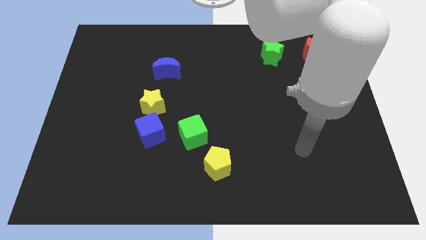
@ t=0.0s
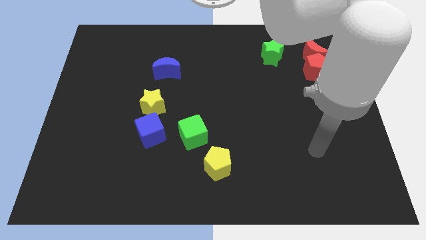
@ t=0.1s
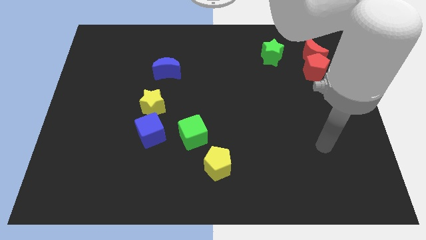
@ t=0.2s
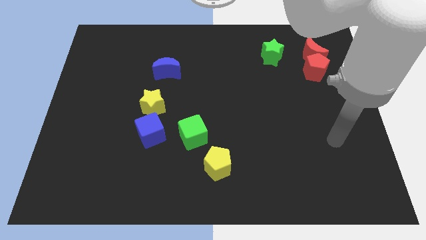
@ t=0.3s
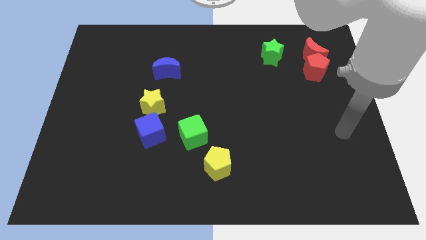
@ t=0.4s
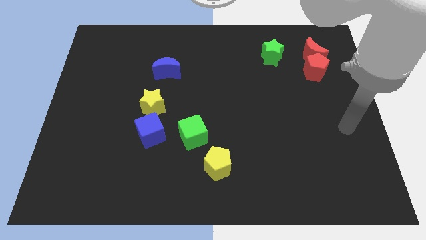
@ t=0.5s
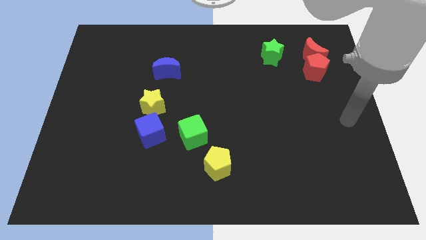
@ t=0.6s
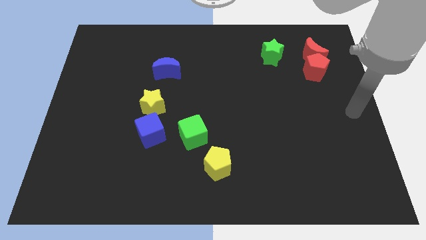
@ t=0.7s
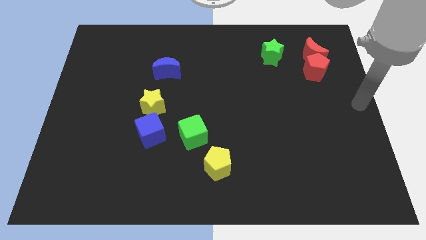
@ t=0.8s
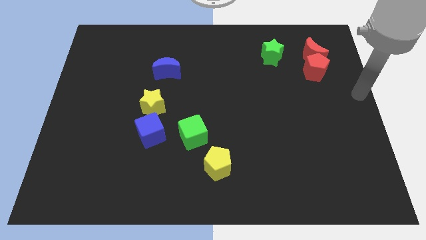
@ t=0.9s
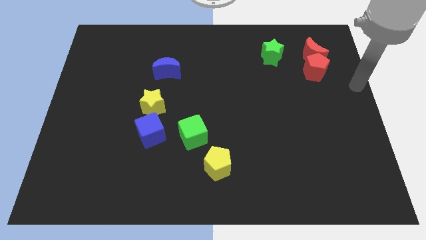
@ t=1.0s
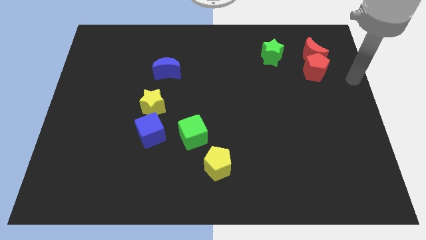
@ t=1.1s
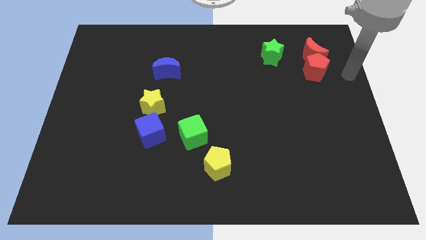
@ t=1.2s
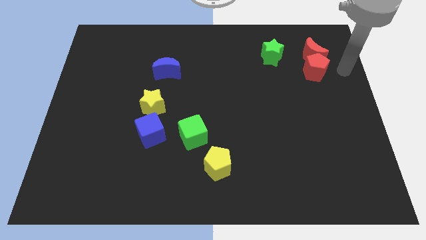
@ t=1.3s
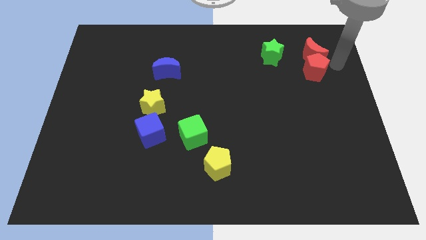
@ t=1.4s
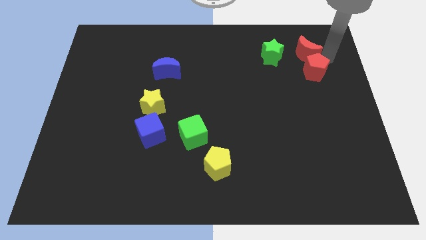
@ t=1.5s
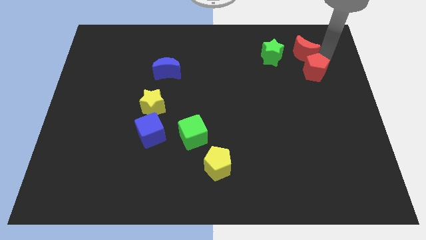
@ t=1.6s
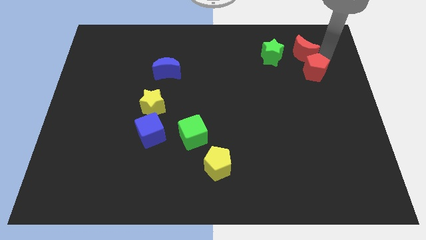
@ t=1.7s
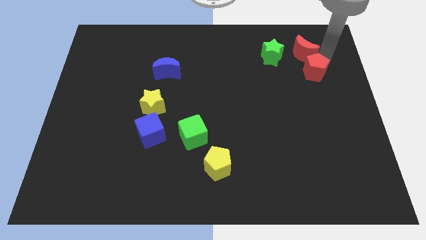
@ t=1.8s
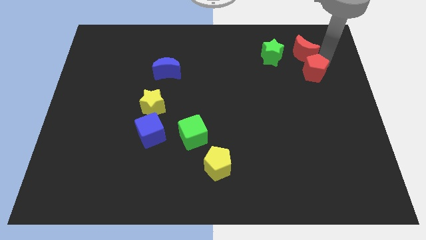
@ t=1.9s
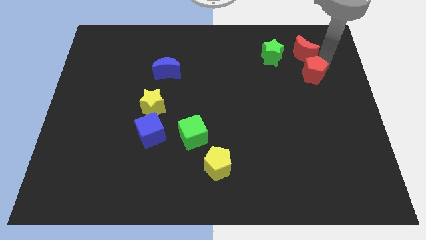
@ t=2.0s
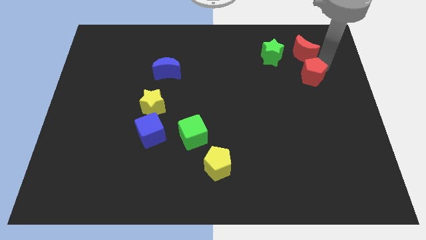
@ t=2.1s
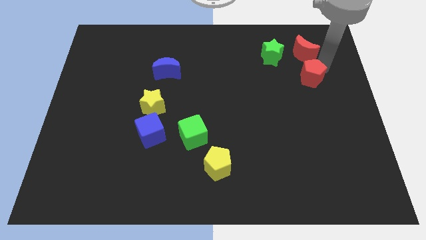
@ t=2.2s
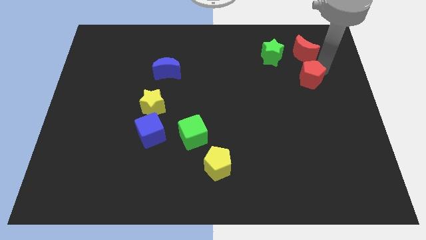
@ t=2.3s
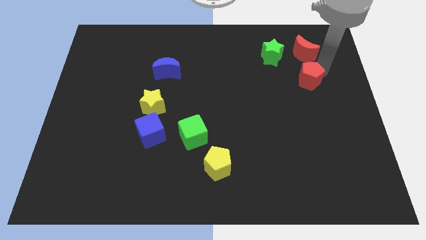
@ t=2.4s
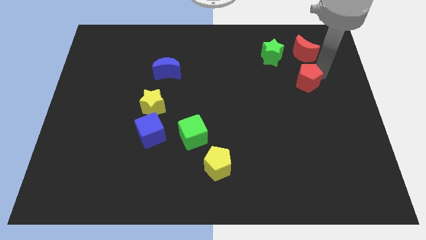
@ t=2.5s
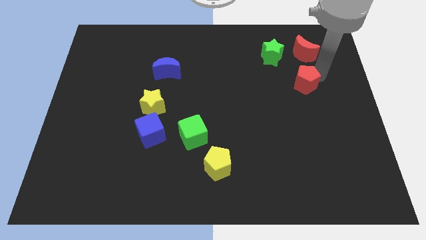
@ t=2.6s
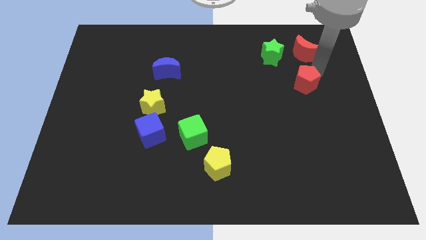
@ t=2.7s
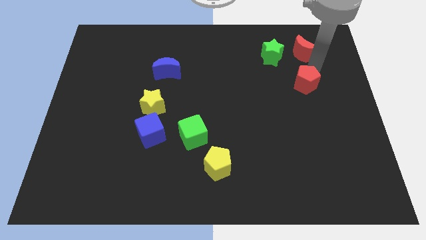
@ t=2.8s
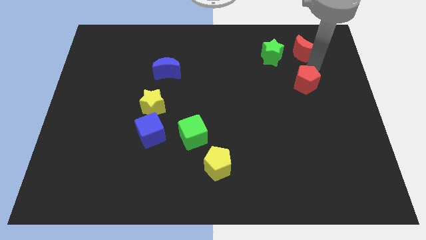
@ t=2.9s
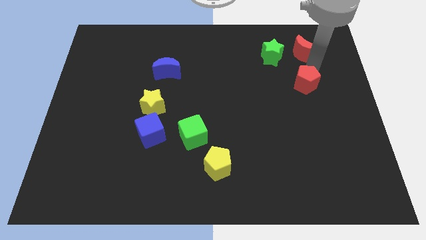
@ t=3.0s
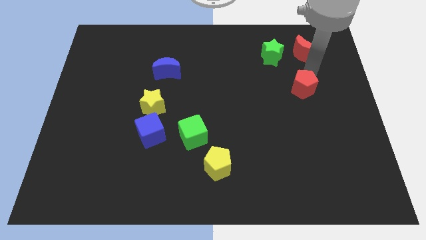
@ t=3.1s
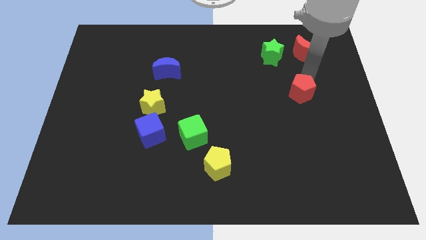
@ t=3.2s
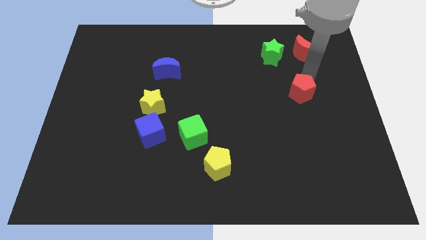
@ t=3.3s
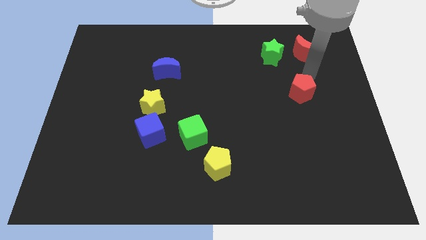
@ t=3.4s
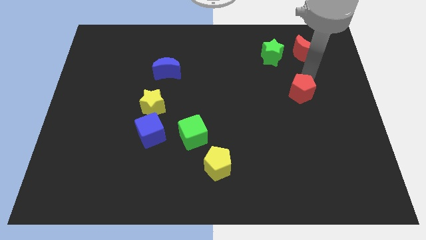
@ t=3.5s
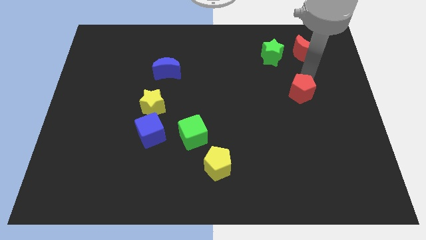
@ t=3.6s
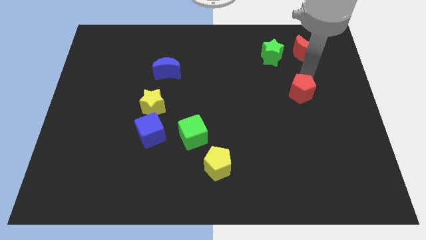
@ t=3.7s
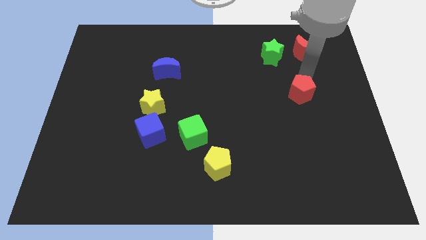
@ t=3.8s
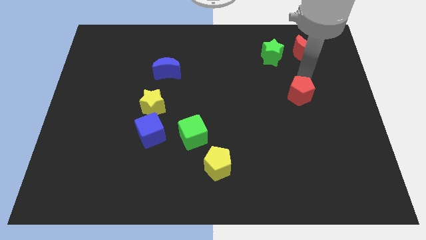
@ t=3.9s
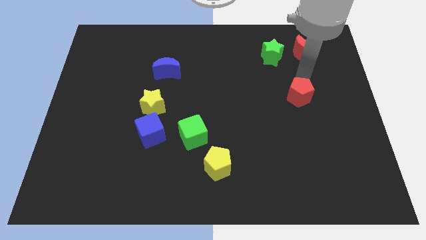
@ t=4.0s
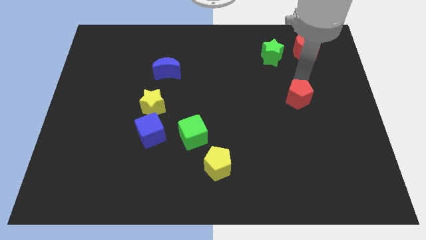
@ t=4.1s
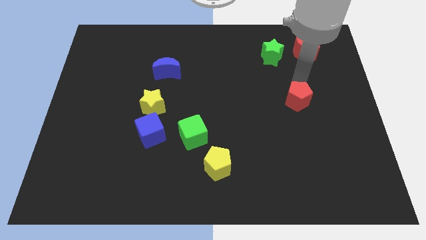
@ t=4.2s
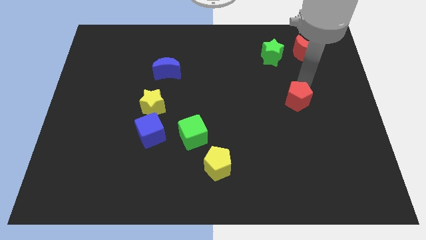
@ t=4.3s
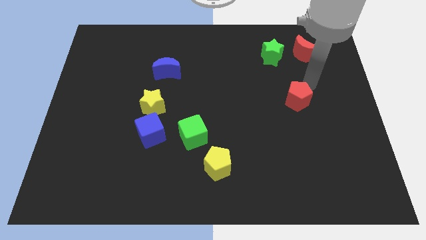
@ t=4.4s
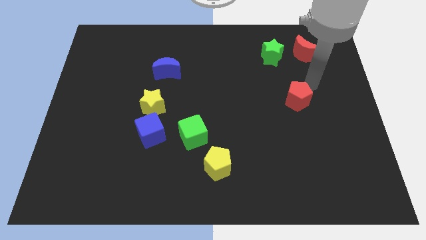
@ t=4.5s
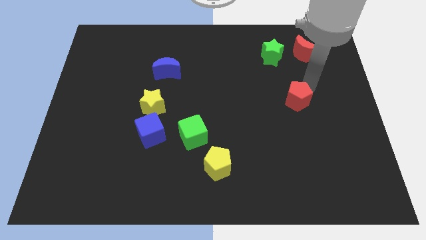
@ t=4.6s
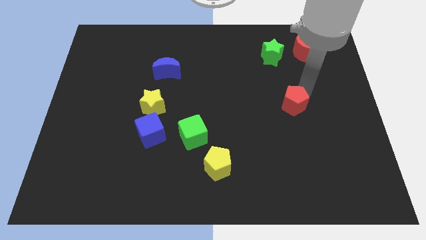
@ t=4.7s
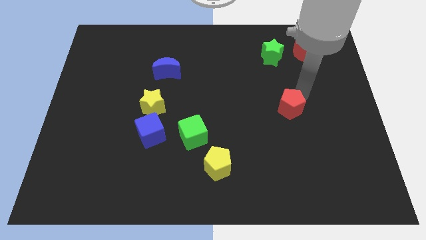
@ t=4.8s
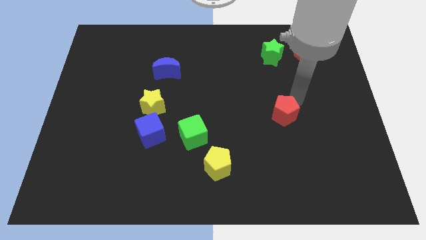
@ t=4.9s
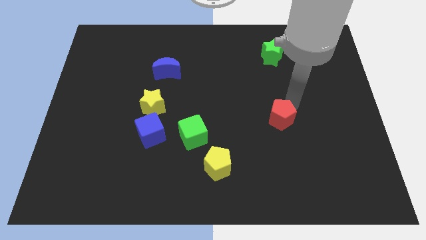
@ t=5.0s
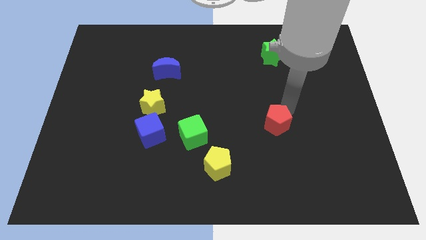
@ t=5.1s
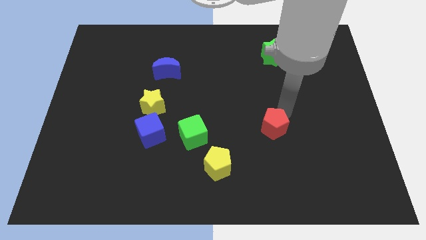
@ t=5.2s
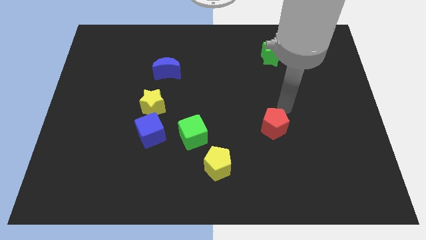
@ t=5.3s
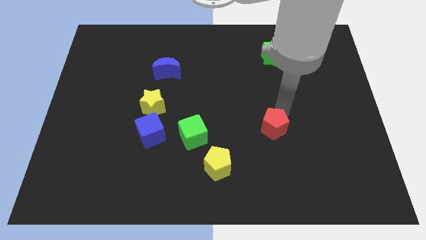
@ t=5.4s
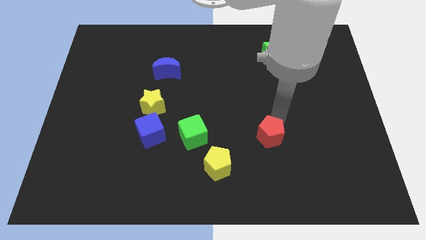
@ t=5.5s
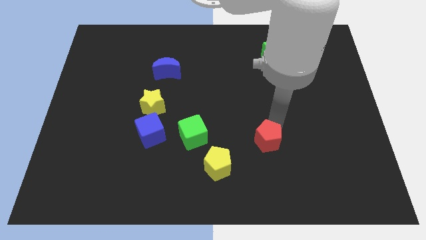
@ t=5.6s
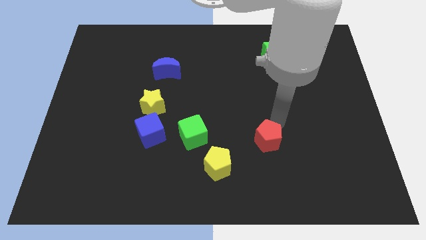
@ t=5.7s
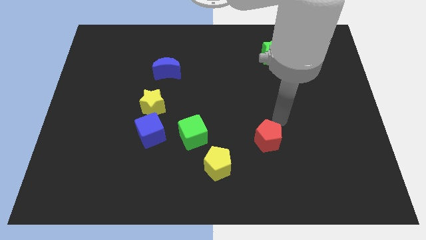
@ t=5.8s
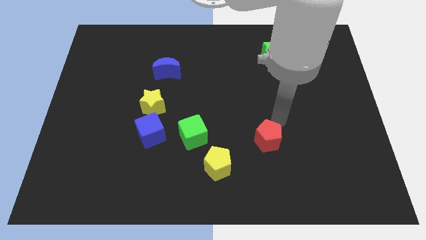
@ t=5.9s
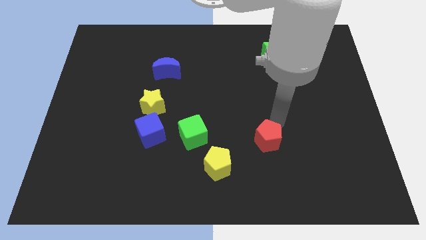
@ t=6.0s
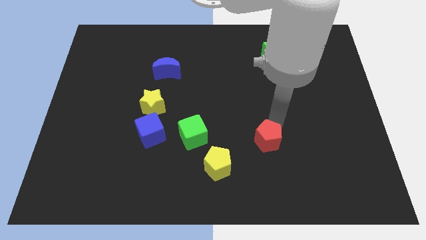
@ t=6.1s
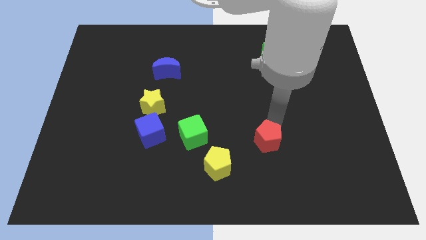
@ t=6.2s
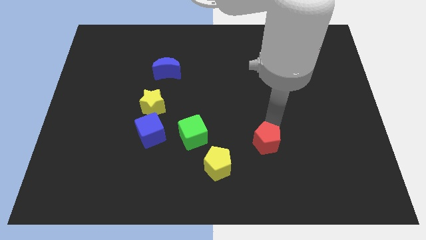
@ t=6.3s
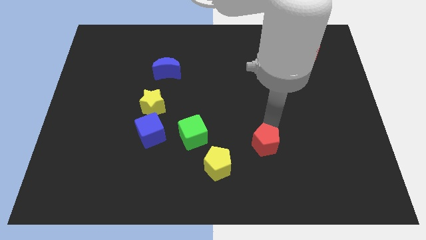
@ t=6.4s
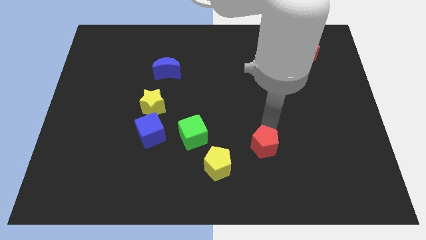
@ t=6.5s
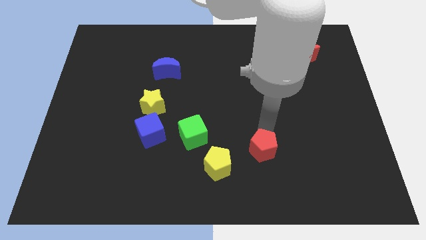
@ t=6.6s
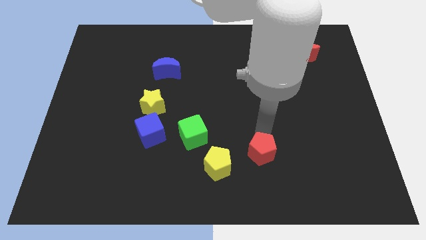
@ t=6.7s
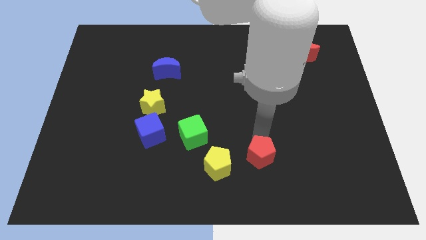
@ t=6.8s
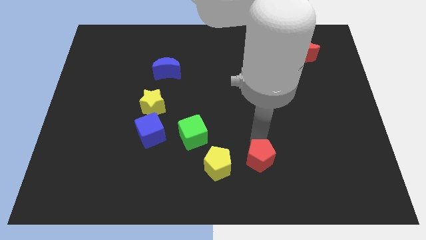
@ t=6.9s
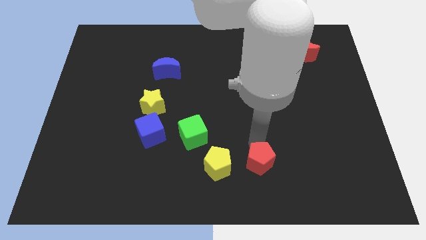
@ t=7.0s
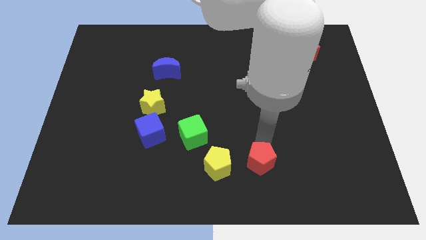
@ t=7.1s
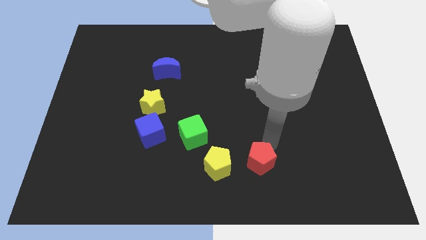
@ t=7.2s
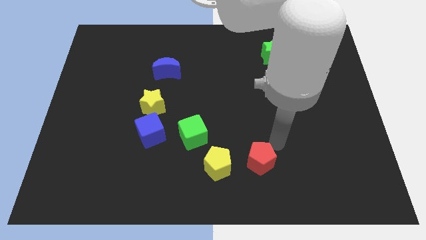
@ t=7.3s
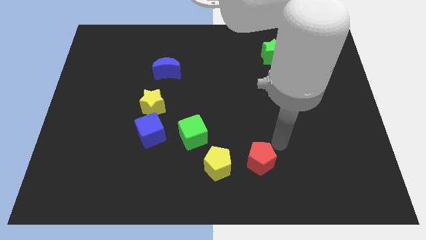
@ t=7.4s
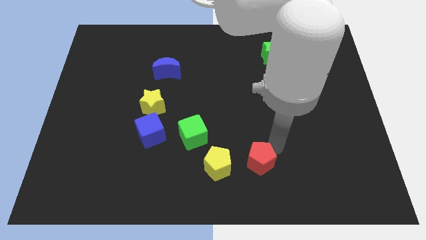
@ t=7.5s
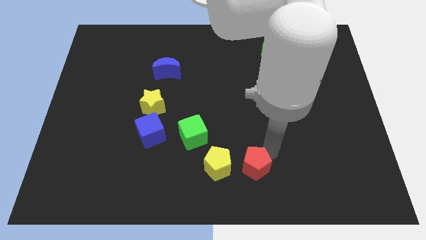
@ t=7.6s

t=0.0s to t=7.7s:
put the red pentagon to the bottom side
